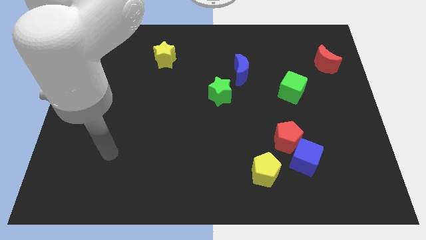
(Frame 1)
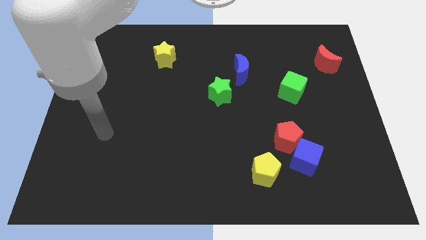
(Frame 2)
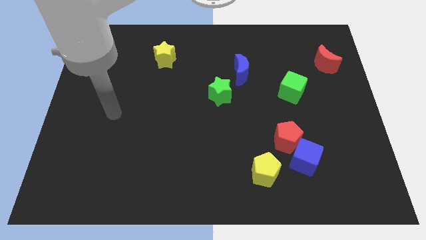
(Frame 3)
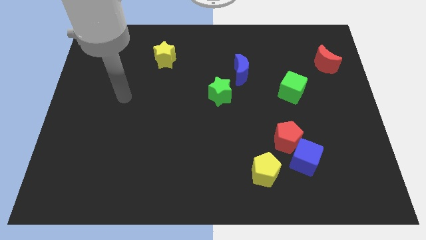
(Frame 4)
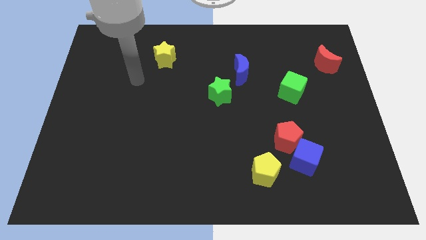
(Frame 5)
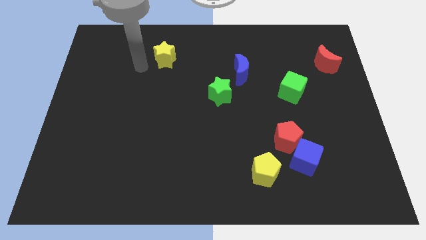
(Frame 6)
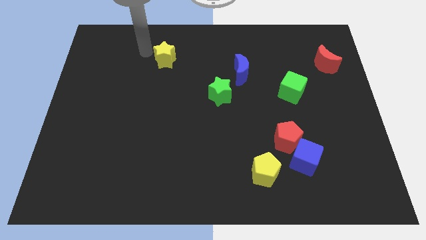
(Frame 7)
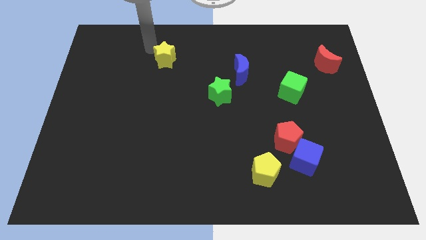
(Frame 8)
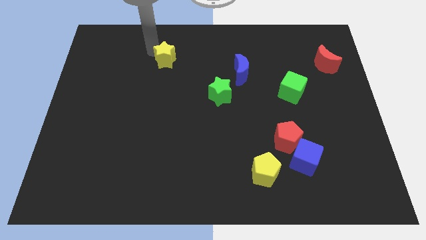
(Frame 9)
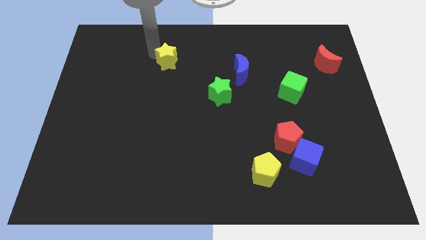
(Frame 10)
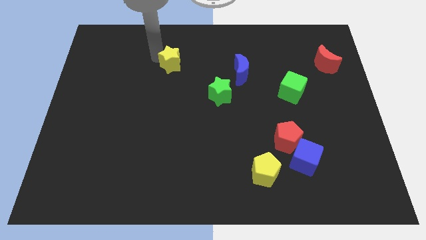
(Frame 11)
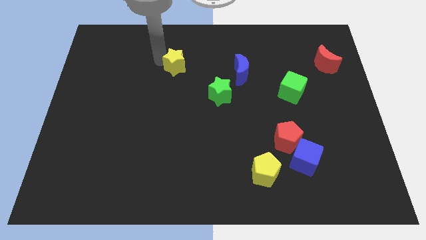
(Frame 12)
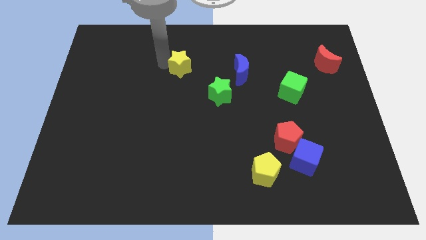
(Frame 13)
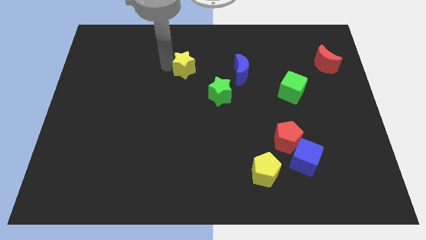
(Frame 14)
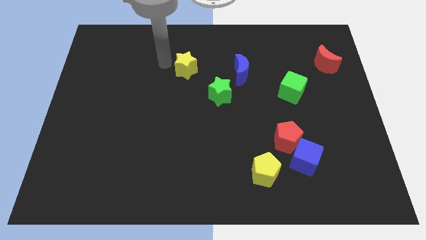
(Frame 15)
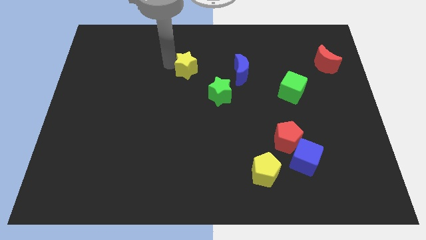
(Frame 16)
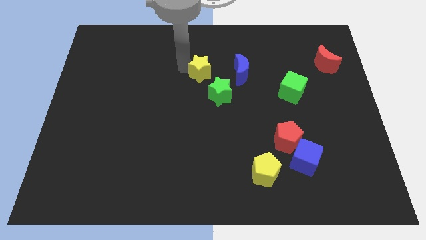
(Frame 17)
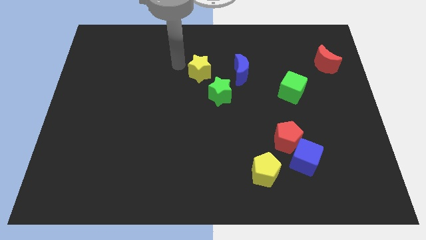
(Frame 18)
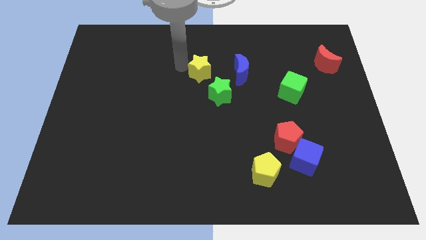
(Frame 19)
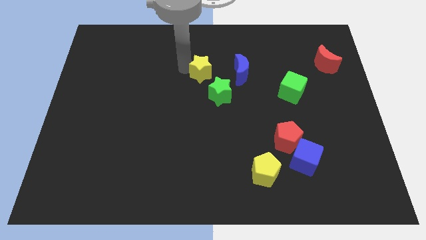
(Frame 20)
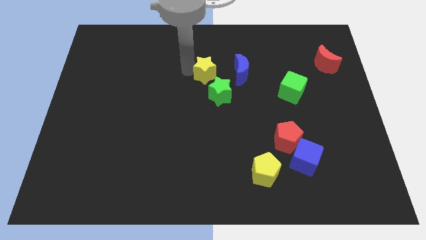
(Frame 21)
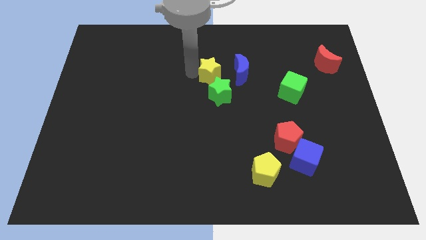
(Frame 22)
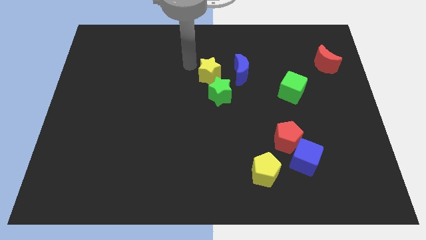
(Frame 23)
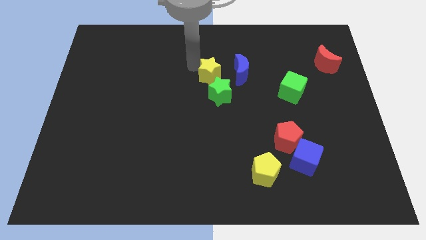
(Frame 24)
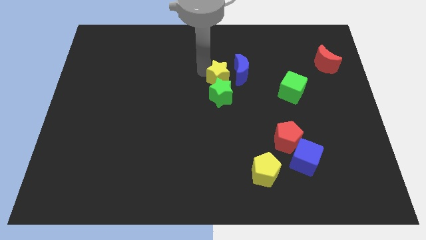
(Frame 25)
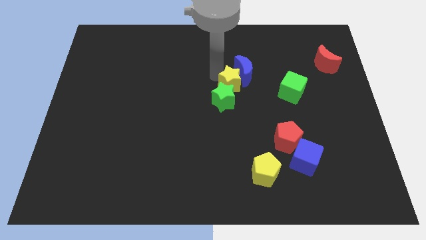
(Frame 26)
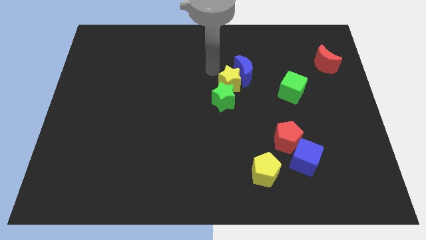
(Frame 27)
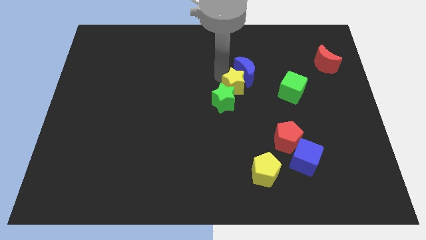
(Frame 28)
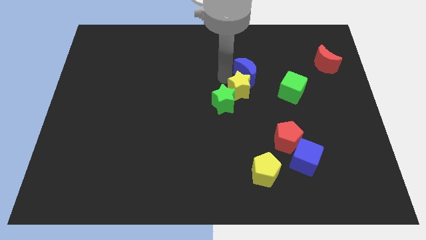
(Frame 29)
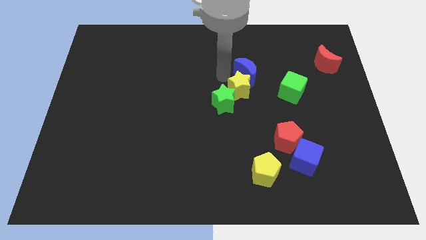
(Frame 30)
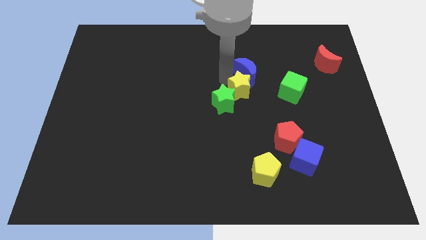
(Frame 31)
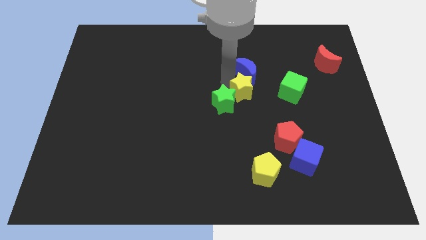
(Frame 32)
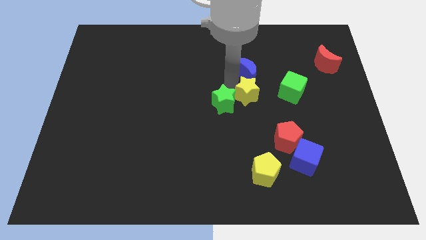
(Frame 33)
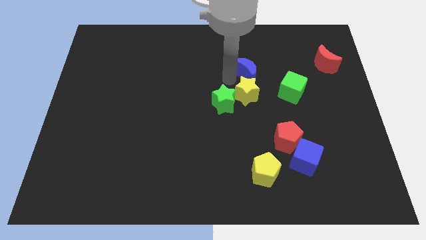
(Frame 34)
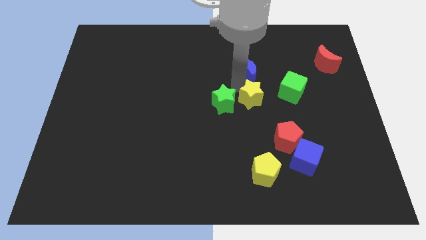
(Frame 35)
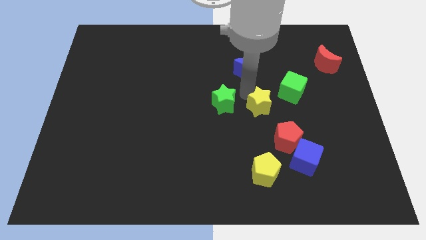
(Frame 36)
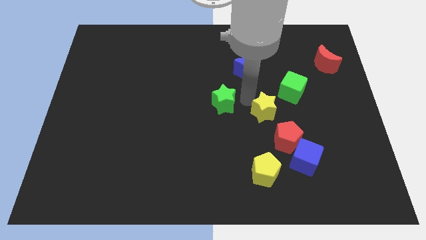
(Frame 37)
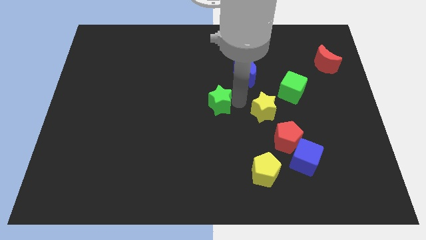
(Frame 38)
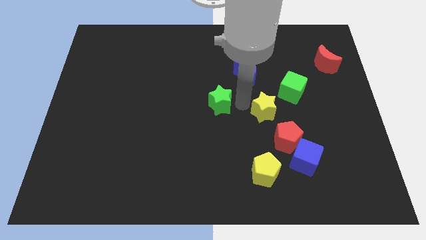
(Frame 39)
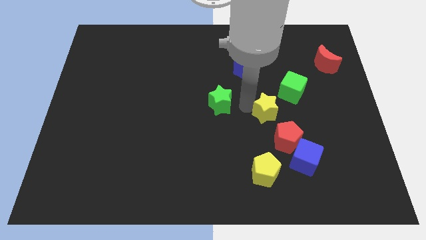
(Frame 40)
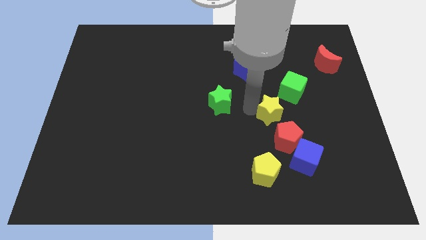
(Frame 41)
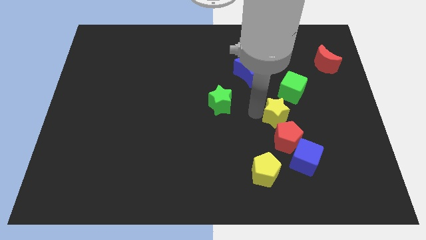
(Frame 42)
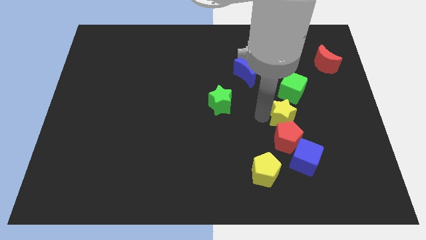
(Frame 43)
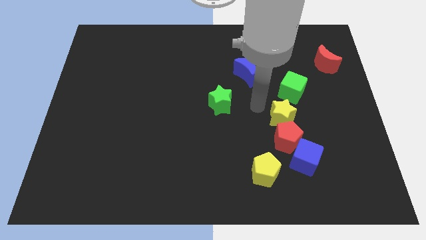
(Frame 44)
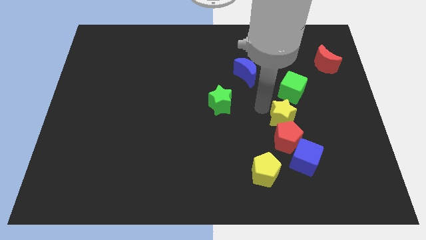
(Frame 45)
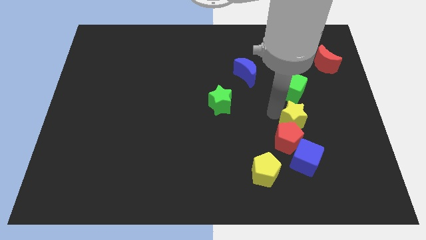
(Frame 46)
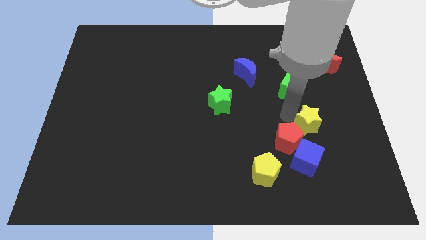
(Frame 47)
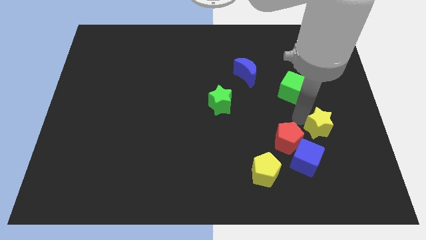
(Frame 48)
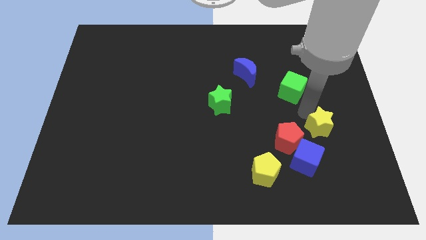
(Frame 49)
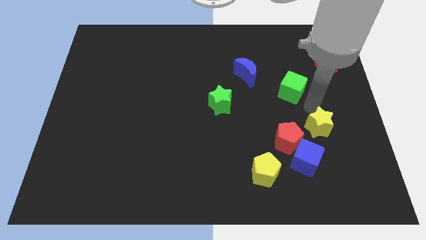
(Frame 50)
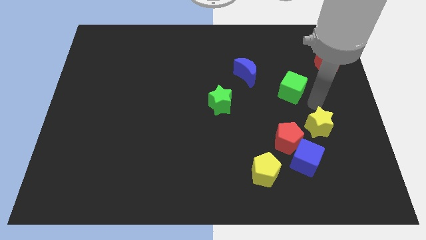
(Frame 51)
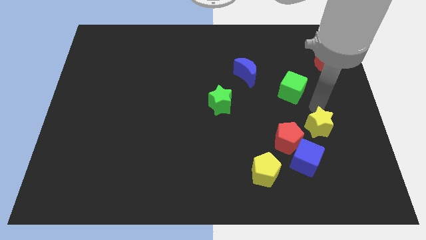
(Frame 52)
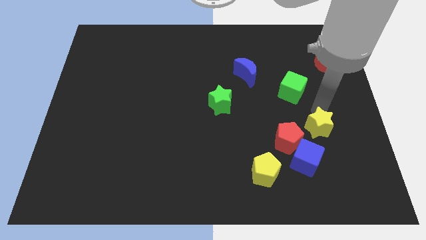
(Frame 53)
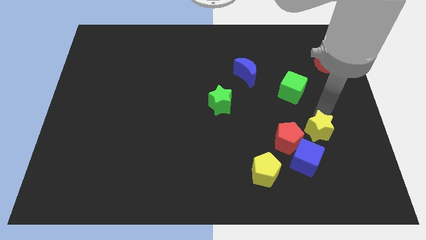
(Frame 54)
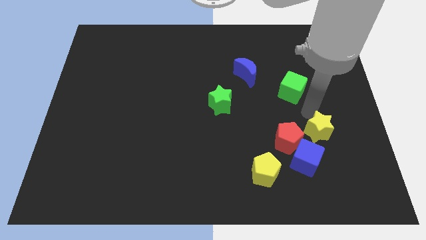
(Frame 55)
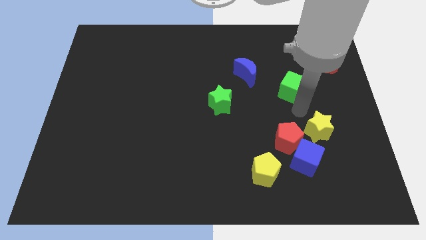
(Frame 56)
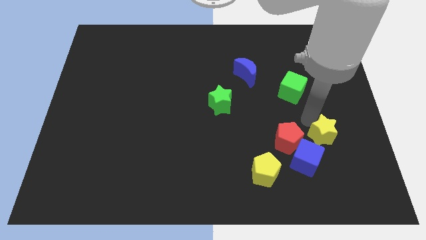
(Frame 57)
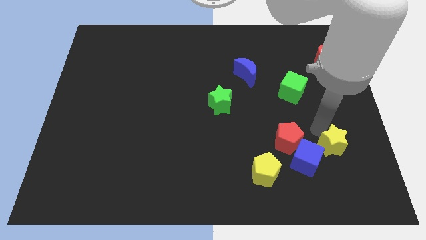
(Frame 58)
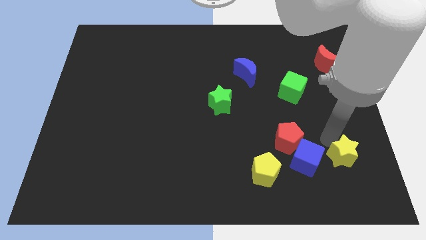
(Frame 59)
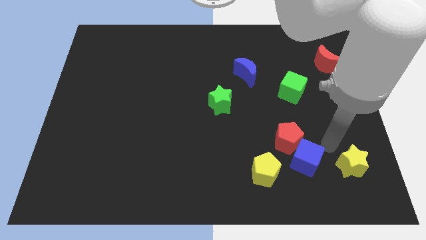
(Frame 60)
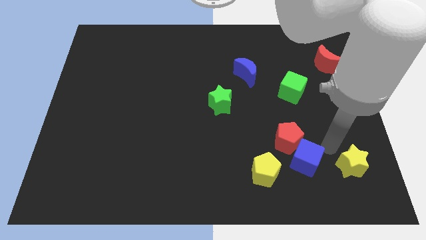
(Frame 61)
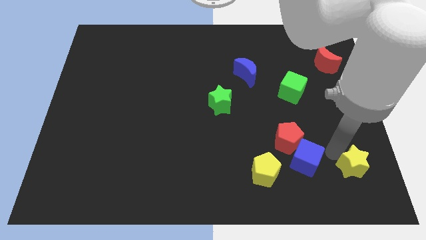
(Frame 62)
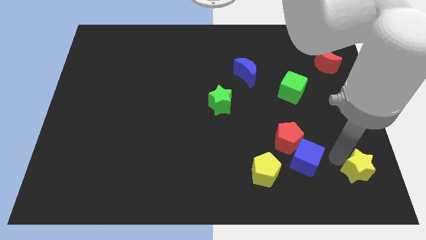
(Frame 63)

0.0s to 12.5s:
push the yellow star to the bottom right corner
